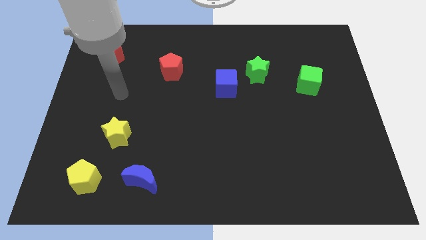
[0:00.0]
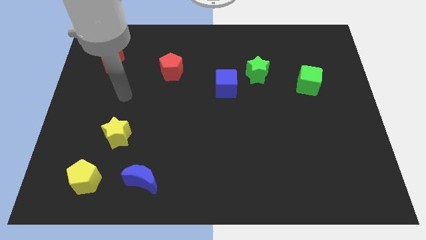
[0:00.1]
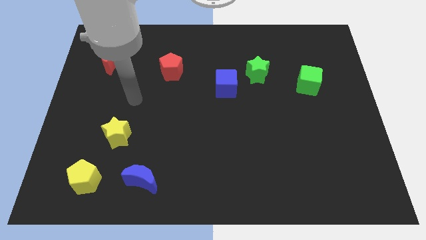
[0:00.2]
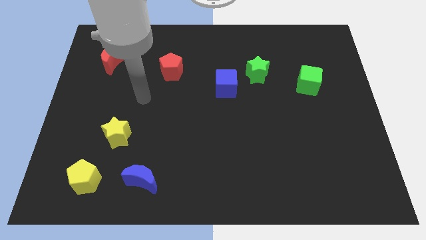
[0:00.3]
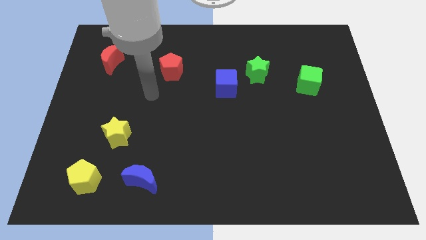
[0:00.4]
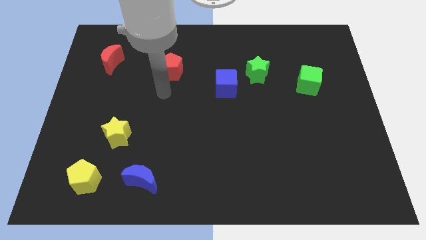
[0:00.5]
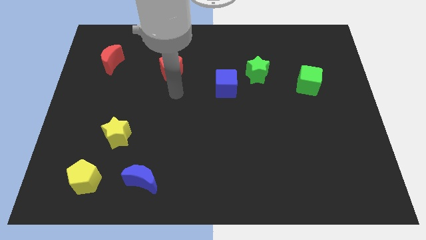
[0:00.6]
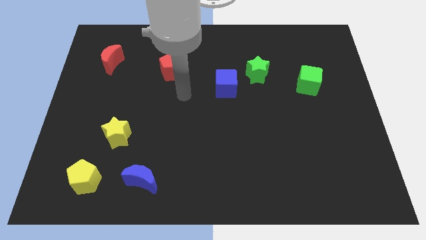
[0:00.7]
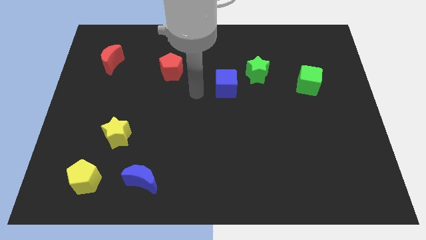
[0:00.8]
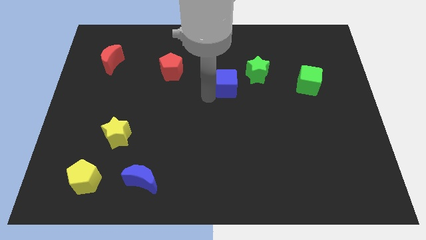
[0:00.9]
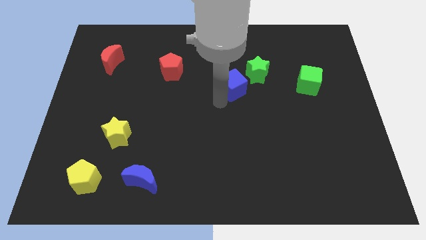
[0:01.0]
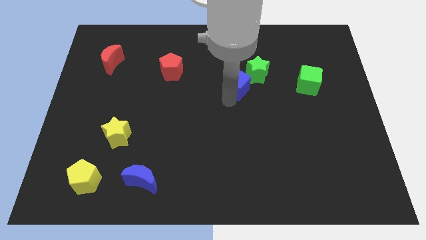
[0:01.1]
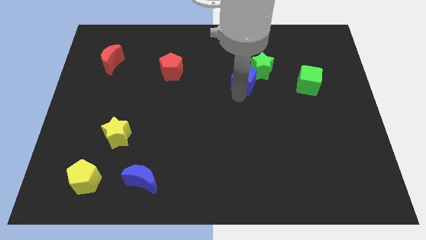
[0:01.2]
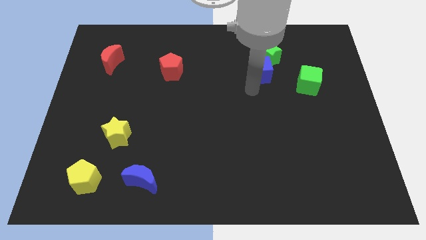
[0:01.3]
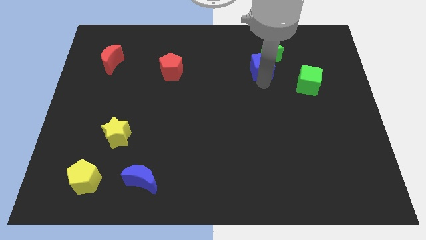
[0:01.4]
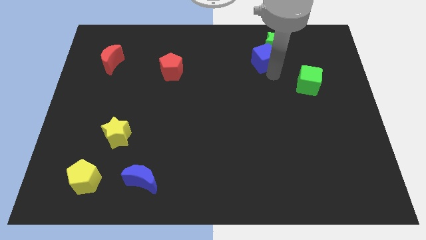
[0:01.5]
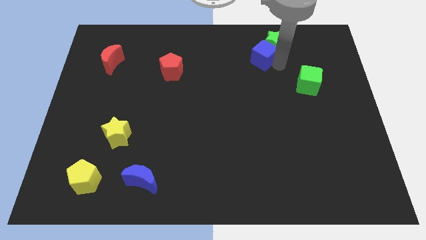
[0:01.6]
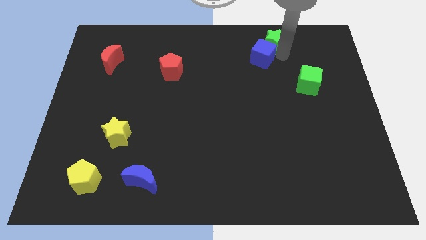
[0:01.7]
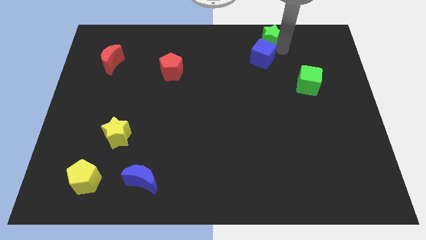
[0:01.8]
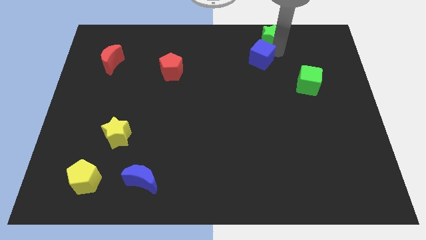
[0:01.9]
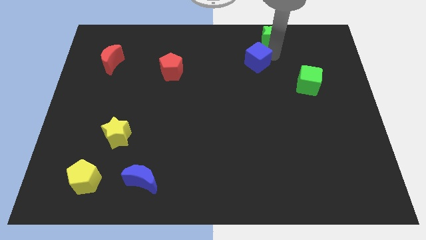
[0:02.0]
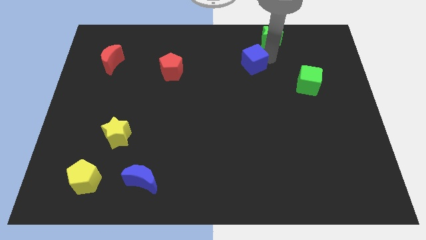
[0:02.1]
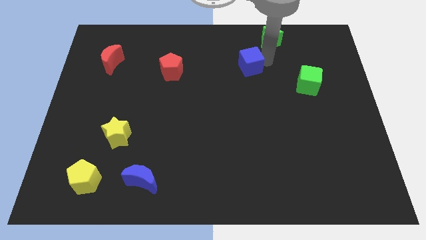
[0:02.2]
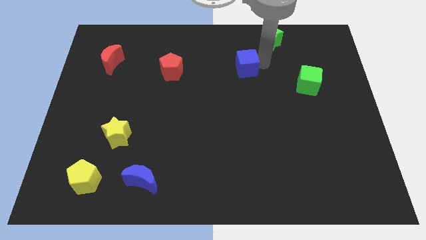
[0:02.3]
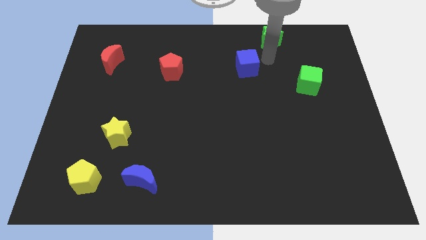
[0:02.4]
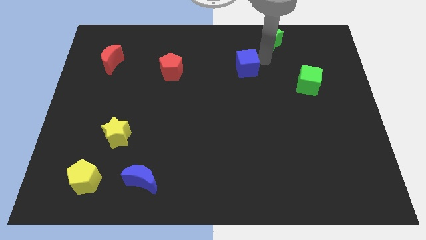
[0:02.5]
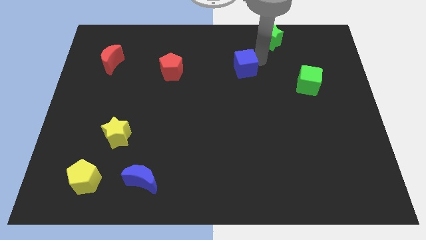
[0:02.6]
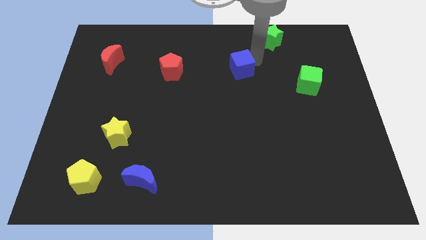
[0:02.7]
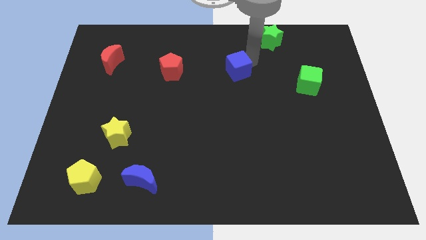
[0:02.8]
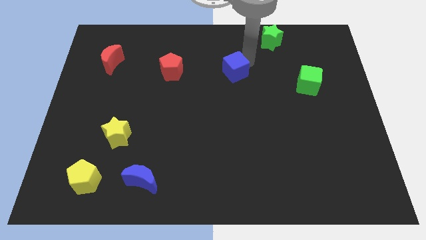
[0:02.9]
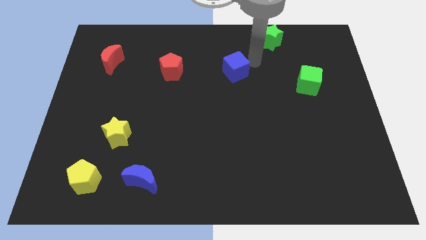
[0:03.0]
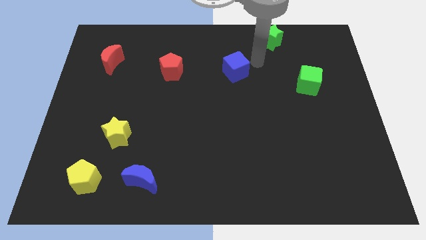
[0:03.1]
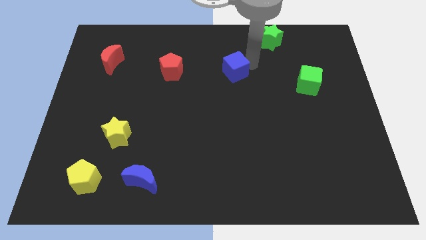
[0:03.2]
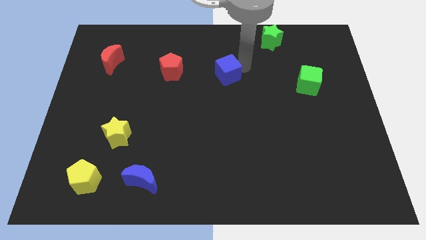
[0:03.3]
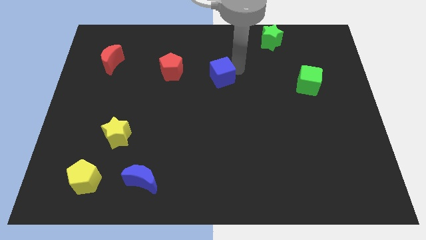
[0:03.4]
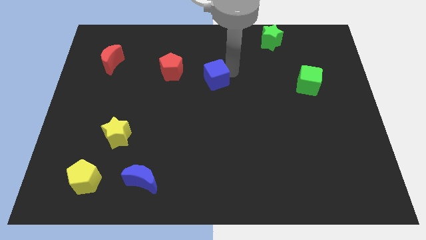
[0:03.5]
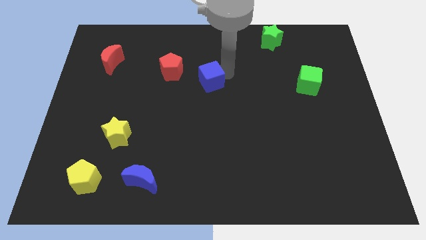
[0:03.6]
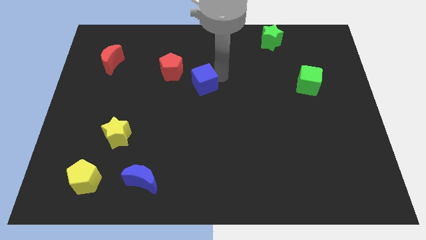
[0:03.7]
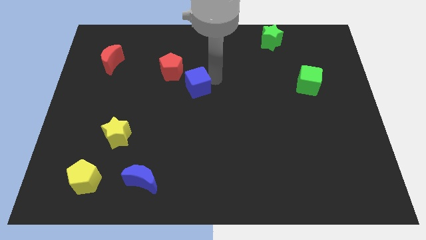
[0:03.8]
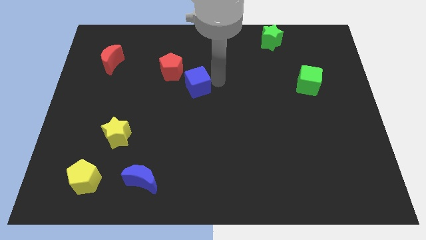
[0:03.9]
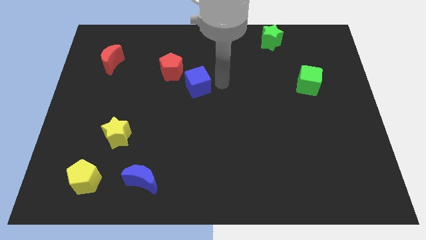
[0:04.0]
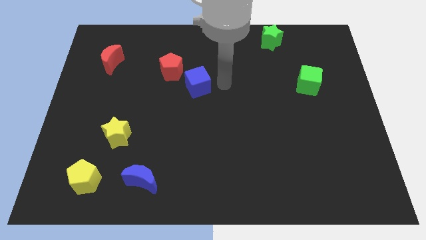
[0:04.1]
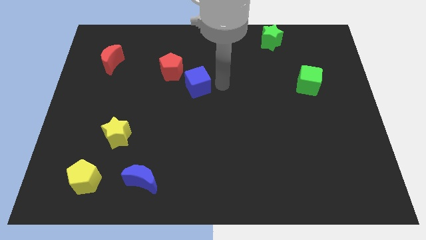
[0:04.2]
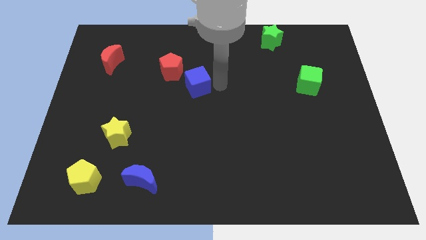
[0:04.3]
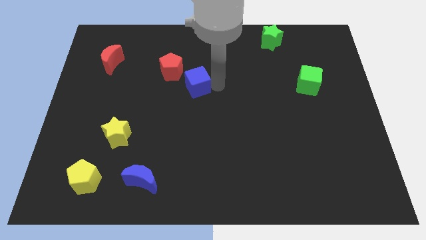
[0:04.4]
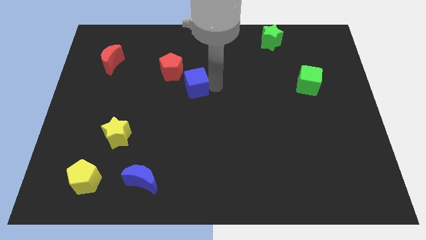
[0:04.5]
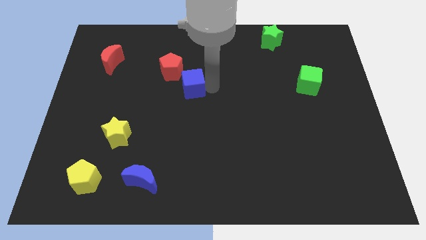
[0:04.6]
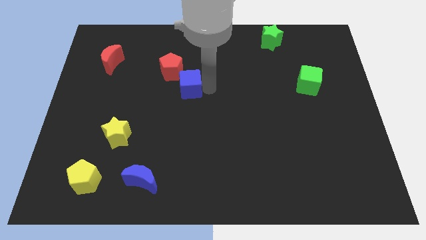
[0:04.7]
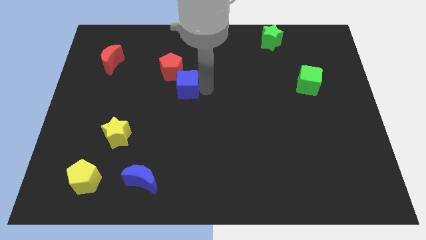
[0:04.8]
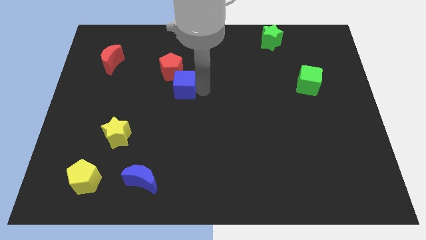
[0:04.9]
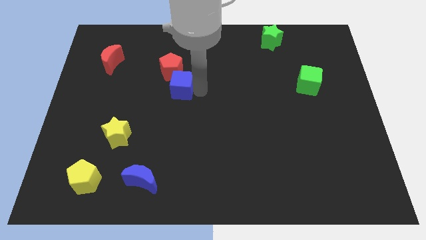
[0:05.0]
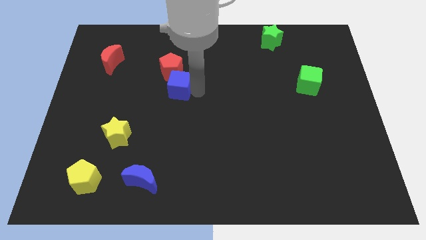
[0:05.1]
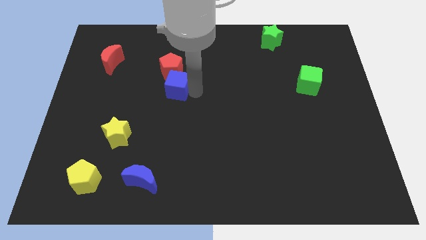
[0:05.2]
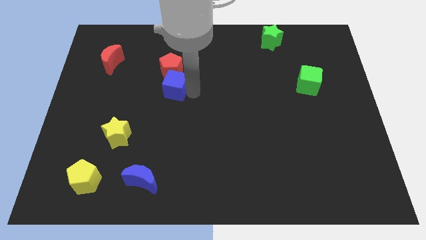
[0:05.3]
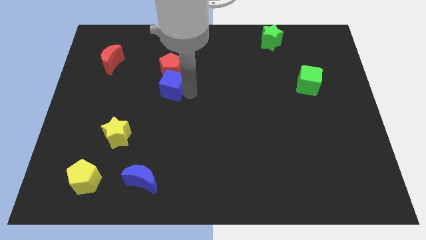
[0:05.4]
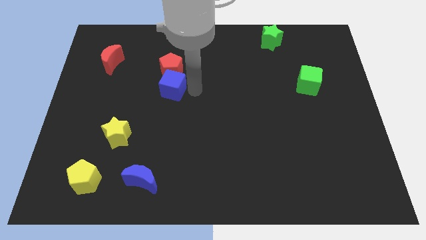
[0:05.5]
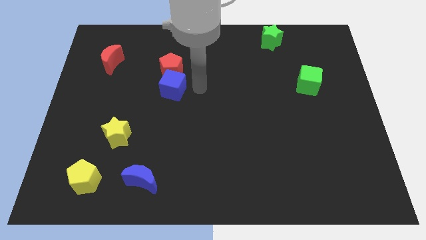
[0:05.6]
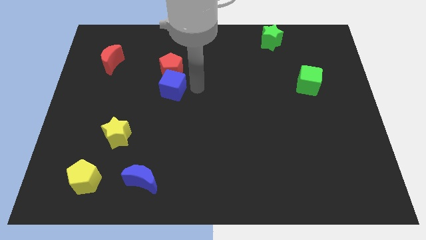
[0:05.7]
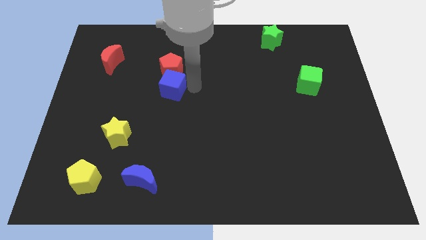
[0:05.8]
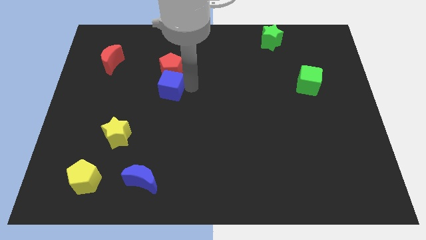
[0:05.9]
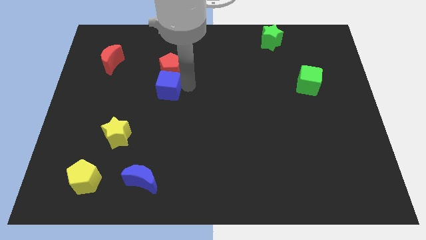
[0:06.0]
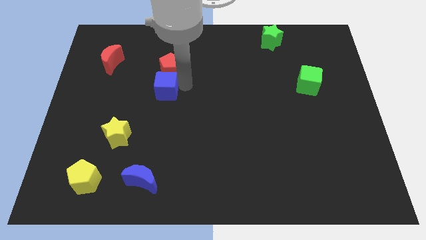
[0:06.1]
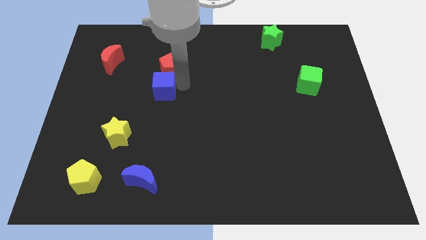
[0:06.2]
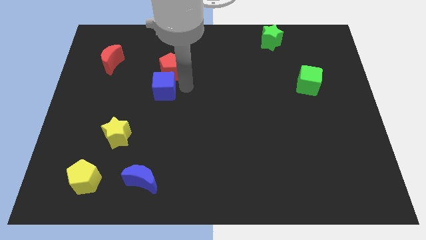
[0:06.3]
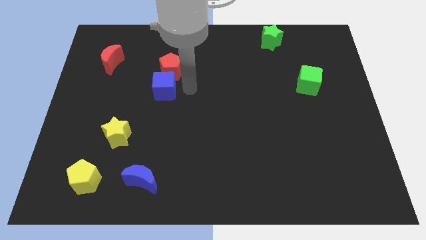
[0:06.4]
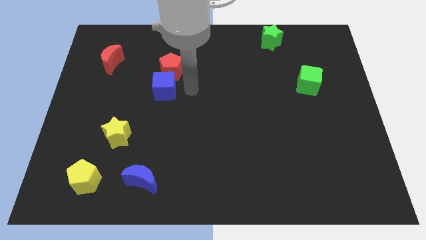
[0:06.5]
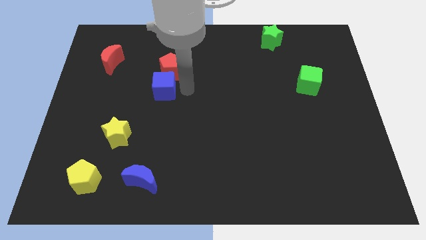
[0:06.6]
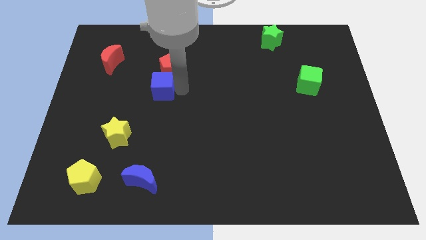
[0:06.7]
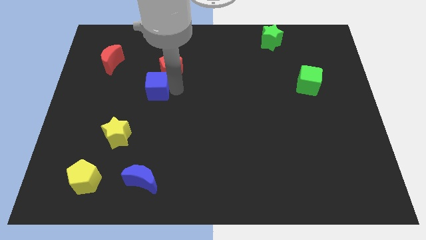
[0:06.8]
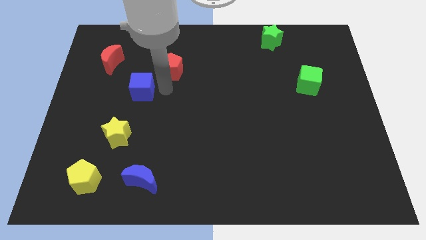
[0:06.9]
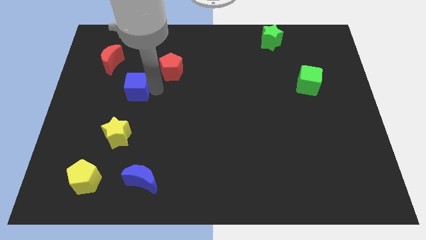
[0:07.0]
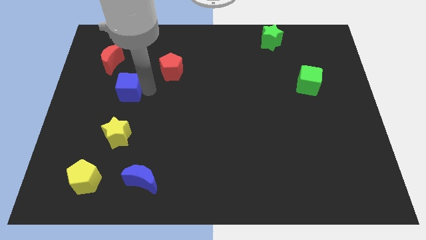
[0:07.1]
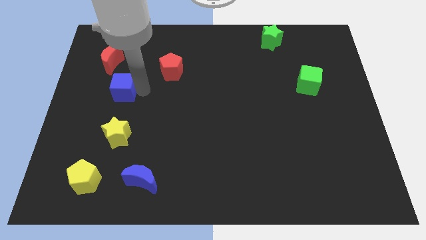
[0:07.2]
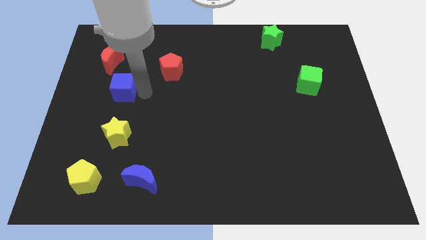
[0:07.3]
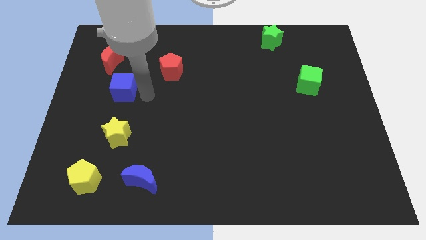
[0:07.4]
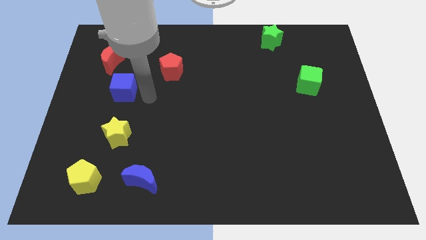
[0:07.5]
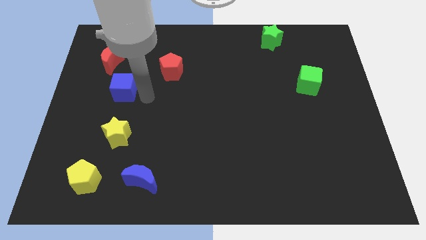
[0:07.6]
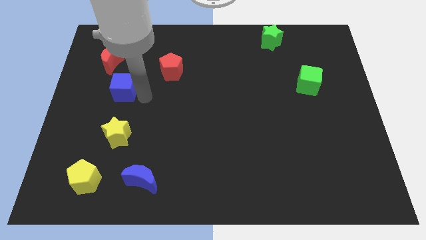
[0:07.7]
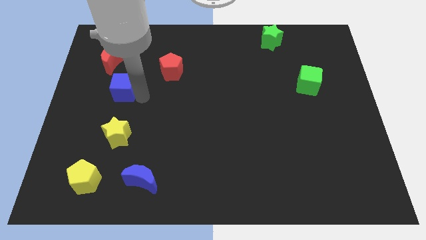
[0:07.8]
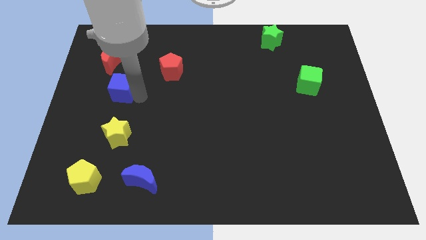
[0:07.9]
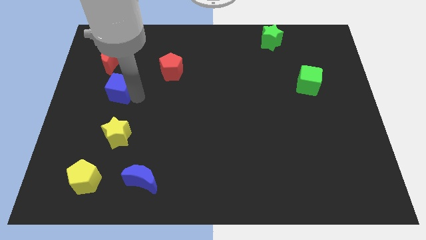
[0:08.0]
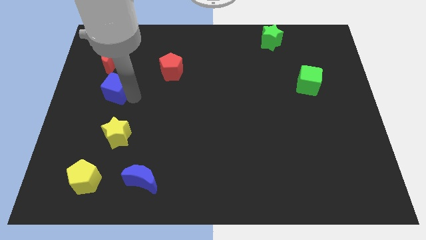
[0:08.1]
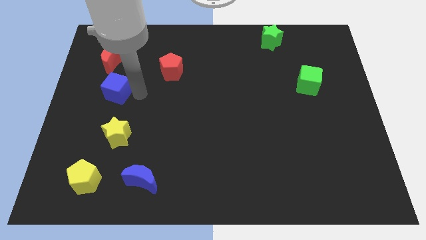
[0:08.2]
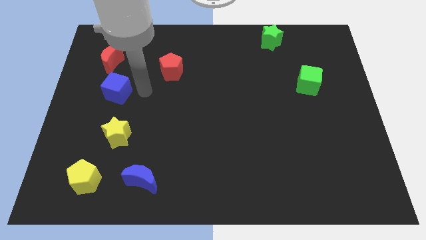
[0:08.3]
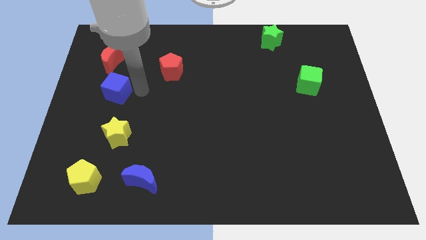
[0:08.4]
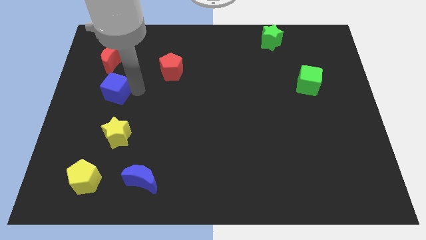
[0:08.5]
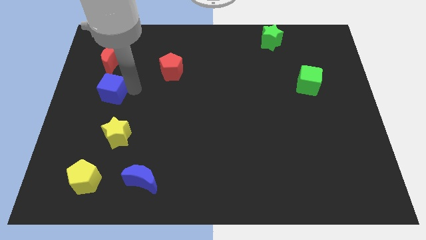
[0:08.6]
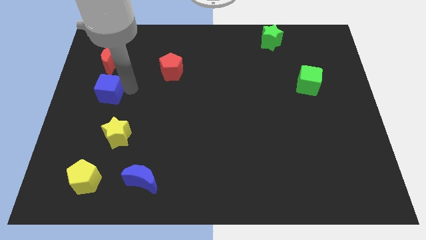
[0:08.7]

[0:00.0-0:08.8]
put the blue cube to the left side of the board
